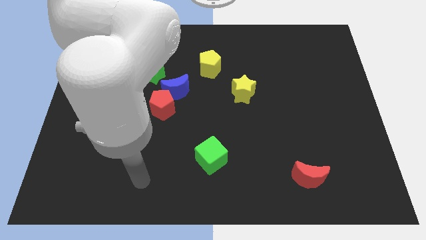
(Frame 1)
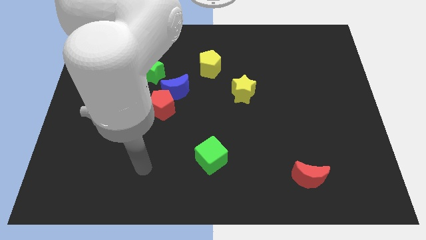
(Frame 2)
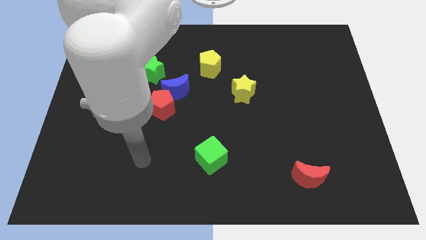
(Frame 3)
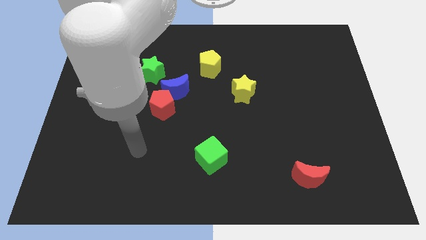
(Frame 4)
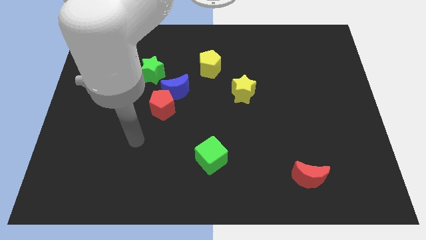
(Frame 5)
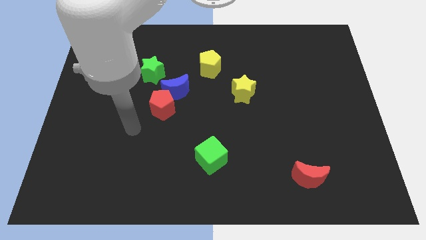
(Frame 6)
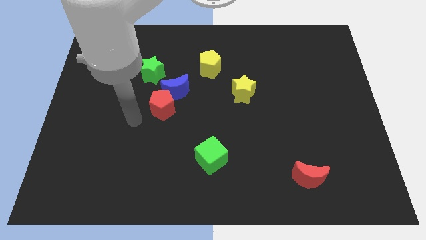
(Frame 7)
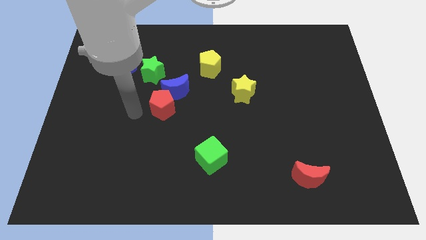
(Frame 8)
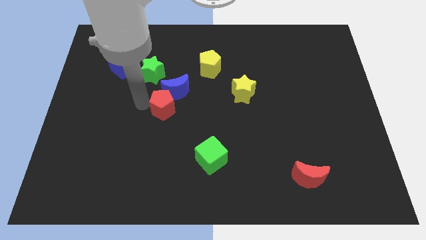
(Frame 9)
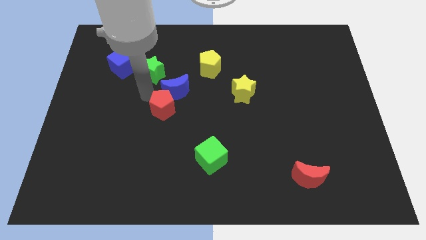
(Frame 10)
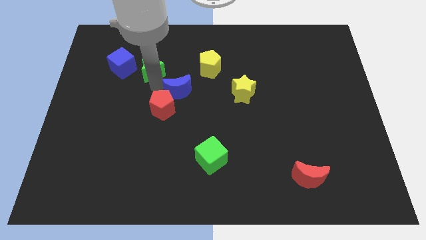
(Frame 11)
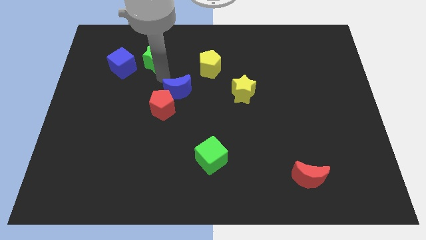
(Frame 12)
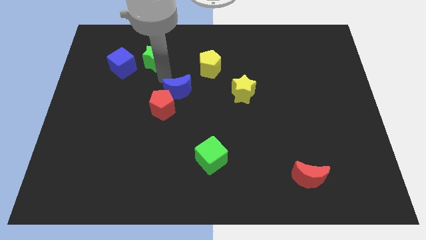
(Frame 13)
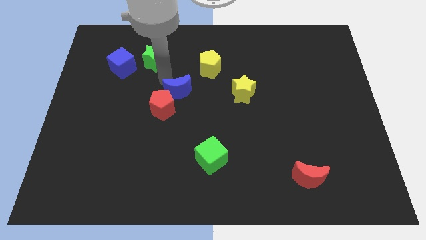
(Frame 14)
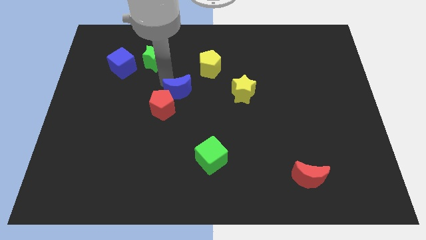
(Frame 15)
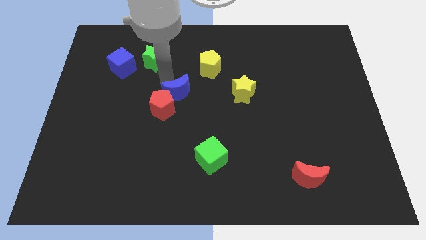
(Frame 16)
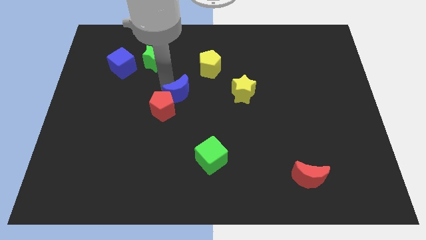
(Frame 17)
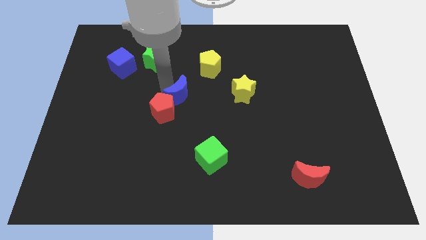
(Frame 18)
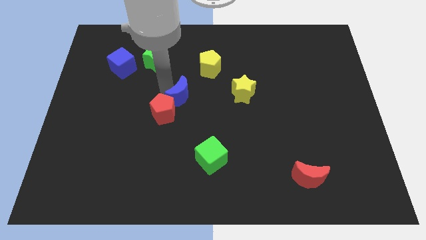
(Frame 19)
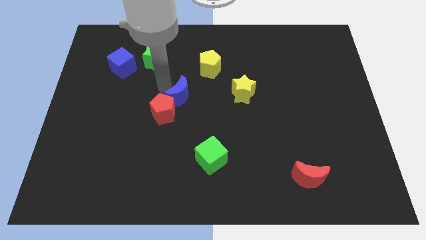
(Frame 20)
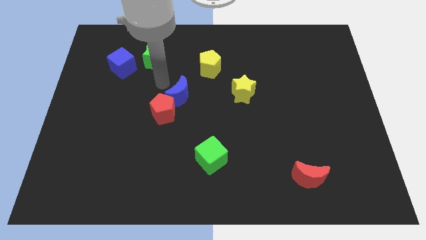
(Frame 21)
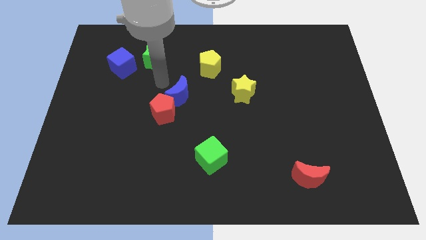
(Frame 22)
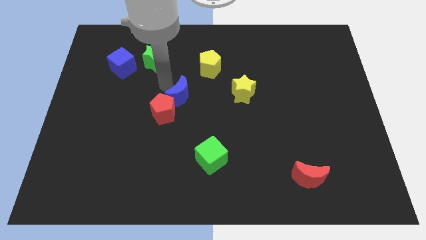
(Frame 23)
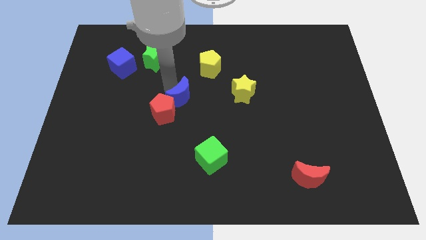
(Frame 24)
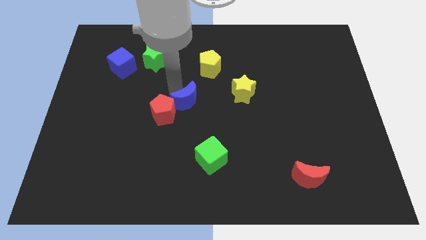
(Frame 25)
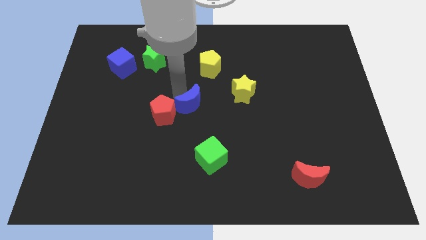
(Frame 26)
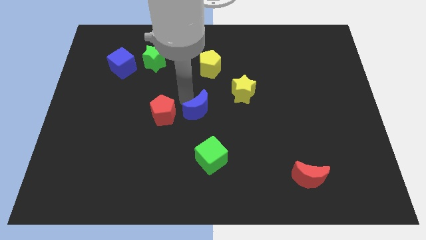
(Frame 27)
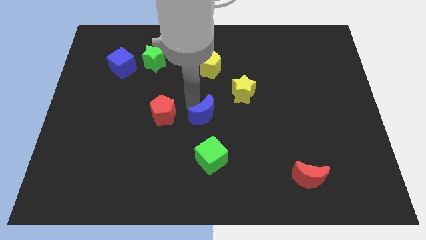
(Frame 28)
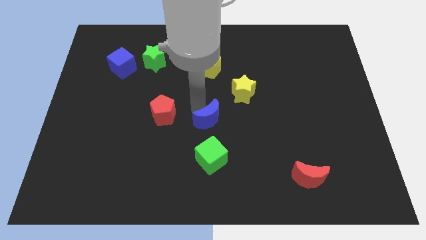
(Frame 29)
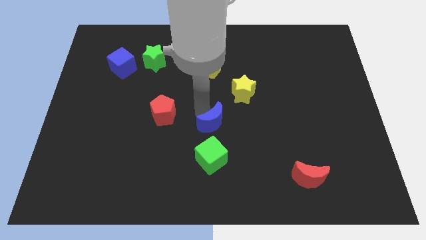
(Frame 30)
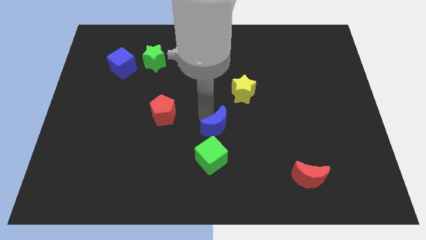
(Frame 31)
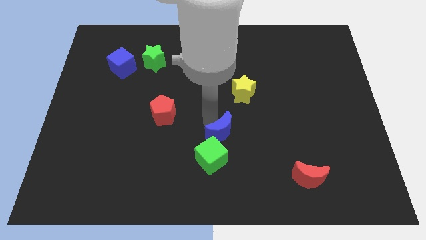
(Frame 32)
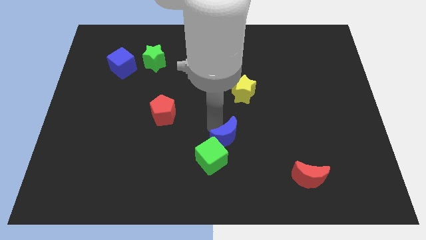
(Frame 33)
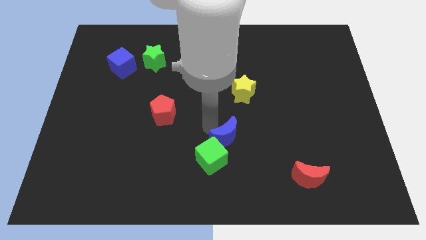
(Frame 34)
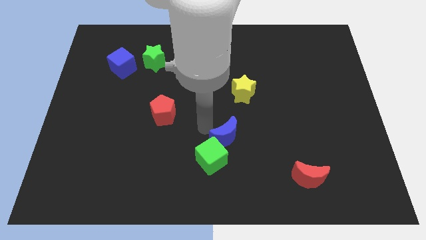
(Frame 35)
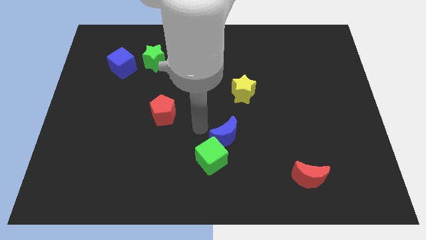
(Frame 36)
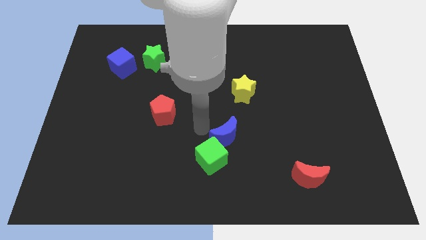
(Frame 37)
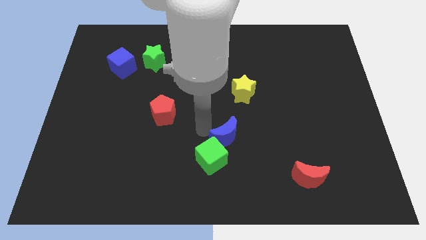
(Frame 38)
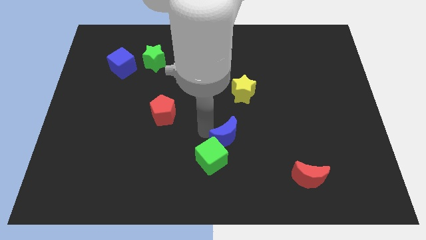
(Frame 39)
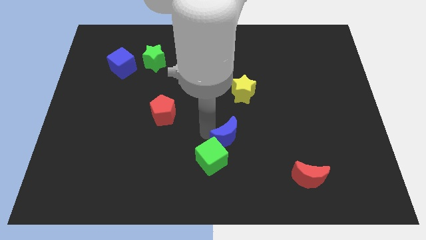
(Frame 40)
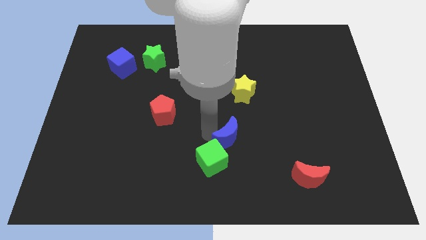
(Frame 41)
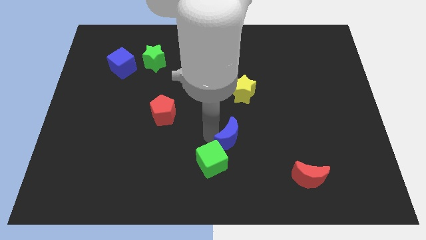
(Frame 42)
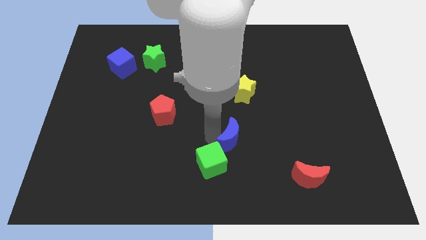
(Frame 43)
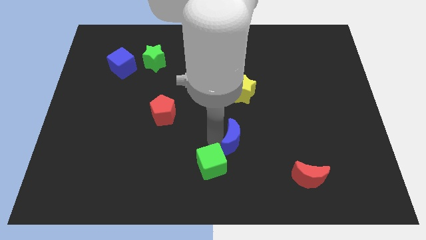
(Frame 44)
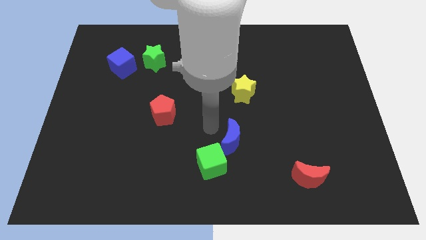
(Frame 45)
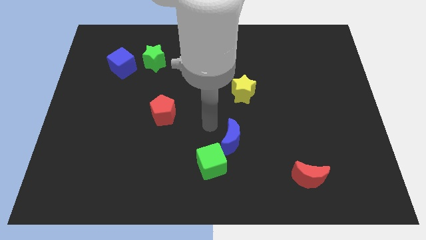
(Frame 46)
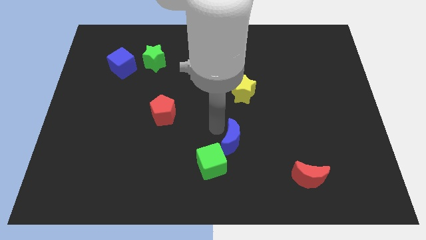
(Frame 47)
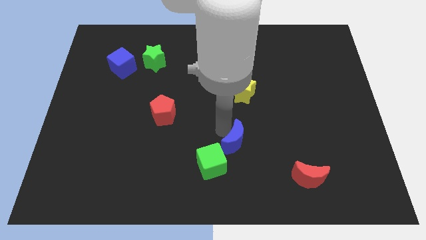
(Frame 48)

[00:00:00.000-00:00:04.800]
push the blue moon downwards and right

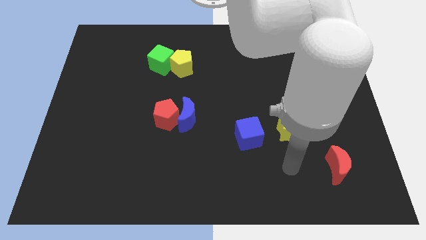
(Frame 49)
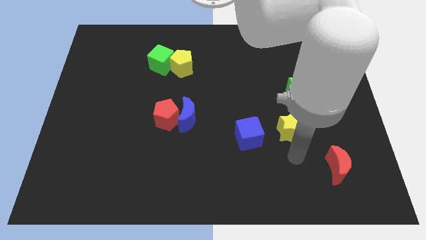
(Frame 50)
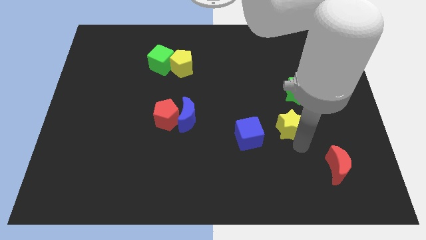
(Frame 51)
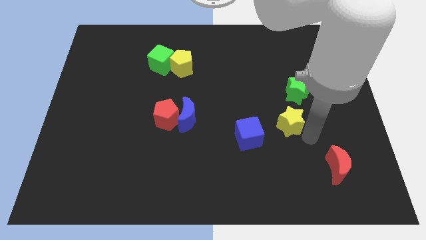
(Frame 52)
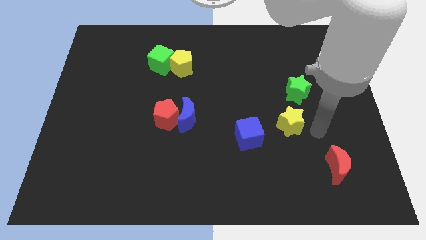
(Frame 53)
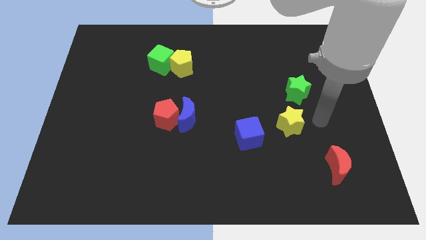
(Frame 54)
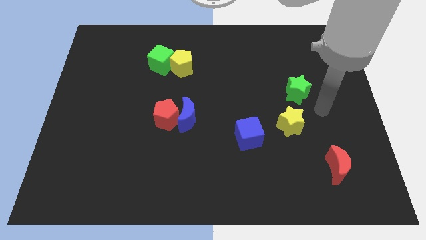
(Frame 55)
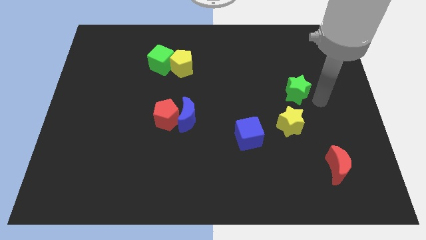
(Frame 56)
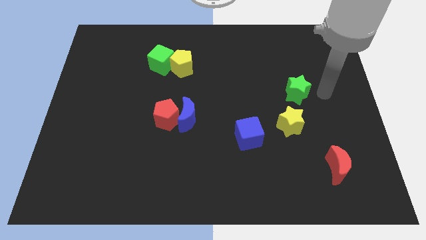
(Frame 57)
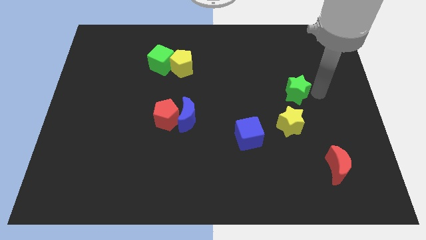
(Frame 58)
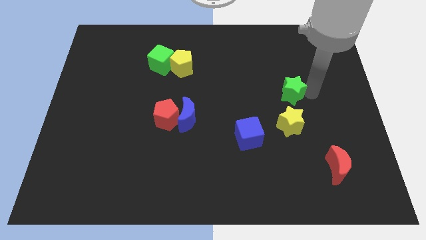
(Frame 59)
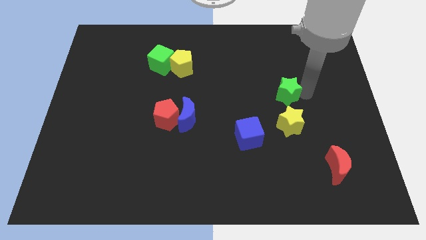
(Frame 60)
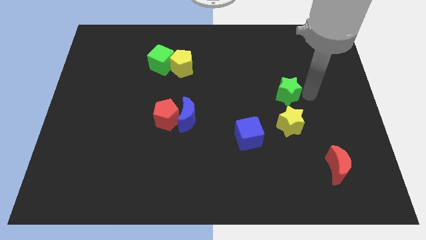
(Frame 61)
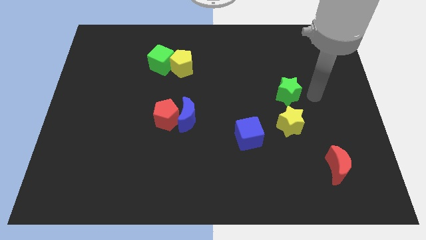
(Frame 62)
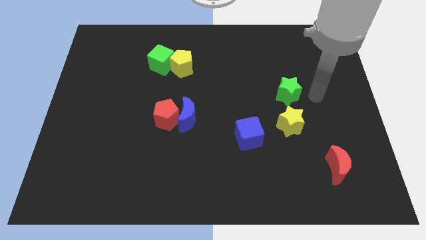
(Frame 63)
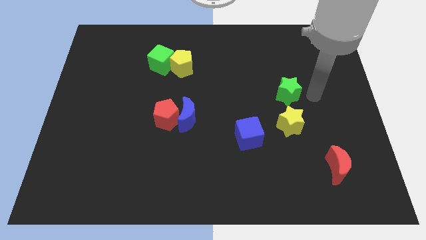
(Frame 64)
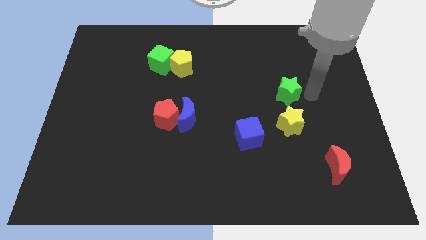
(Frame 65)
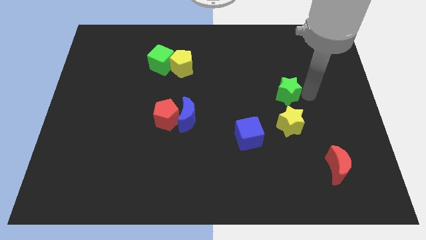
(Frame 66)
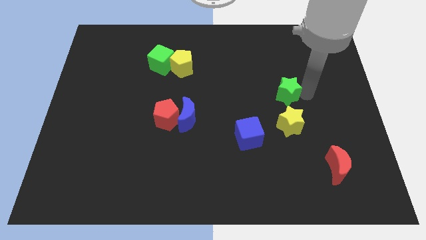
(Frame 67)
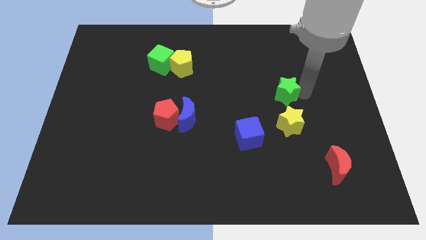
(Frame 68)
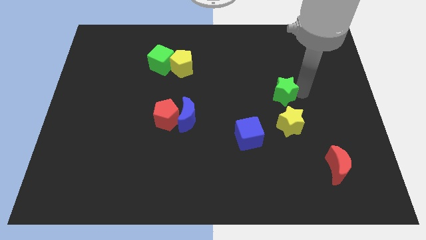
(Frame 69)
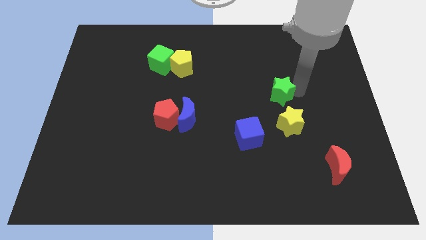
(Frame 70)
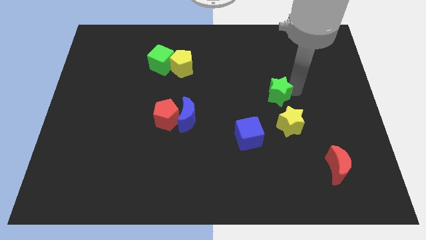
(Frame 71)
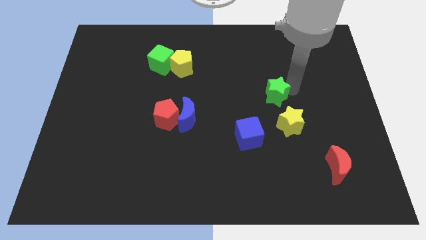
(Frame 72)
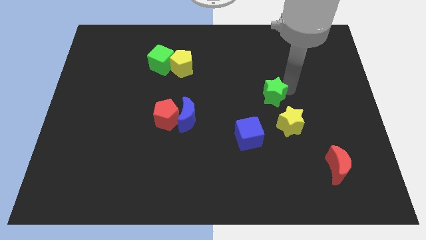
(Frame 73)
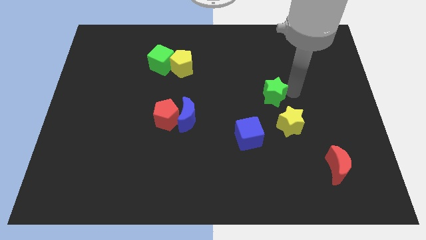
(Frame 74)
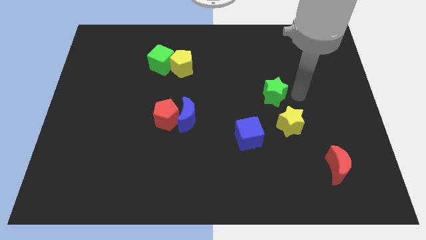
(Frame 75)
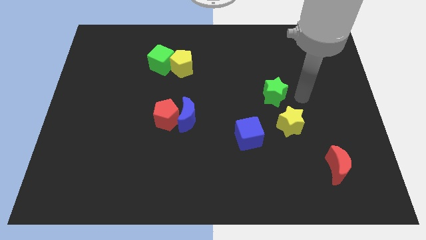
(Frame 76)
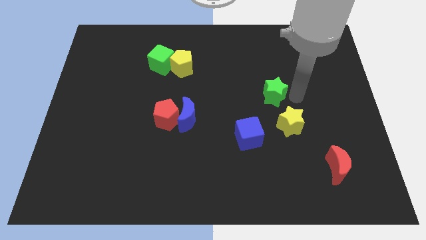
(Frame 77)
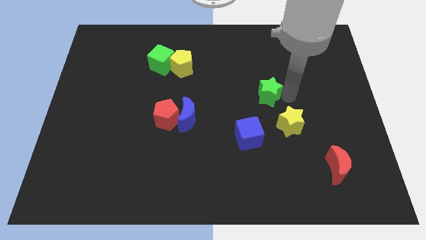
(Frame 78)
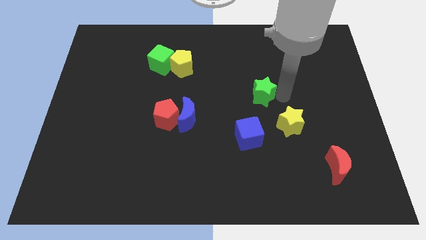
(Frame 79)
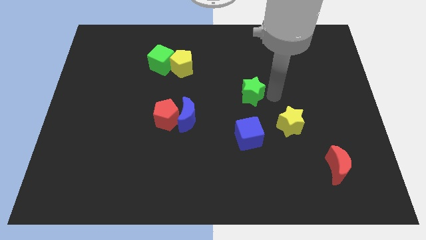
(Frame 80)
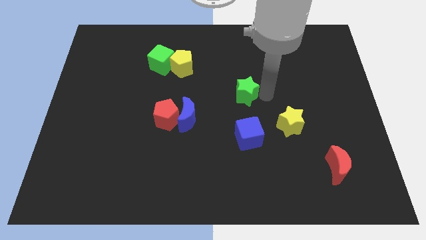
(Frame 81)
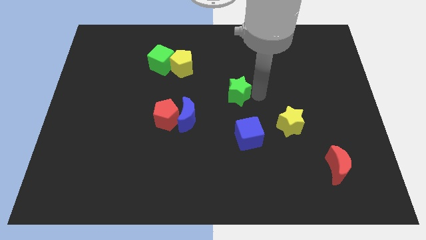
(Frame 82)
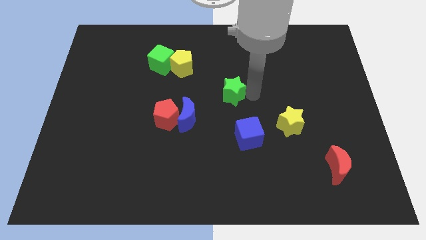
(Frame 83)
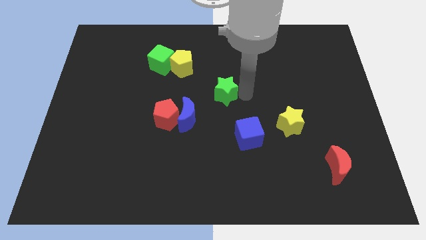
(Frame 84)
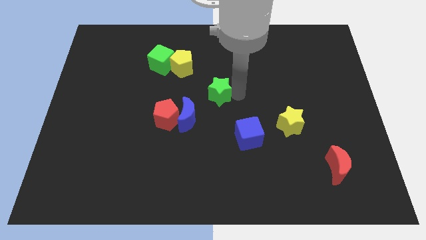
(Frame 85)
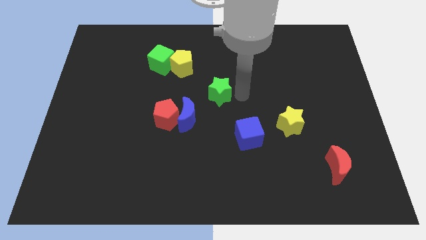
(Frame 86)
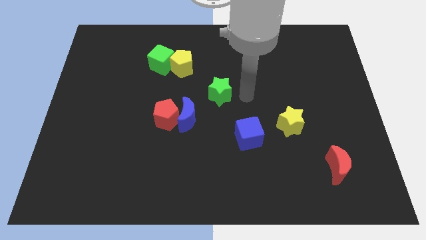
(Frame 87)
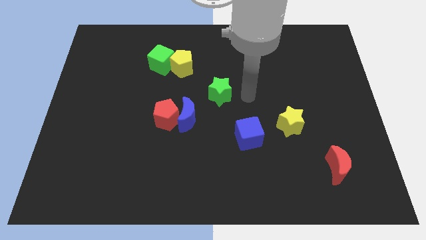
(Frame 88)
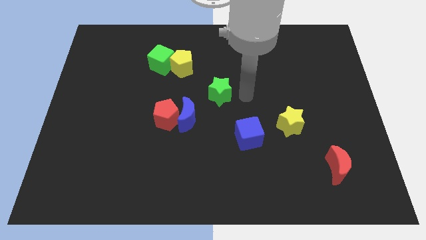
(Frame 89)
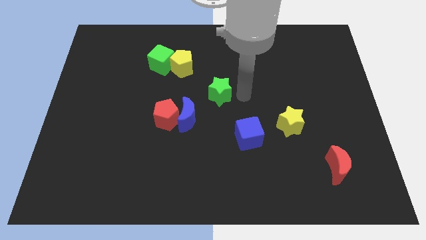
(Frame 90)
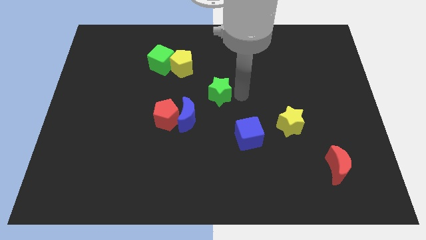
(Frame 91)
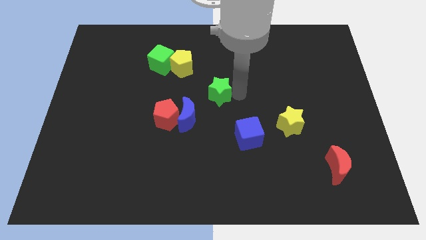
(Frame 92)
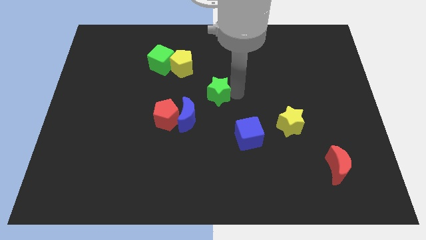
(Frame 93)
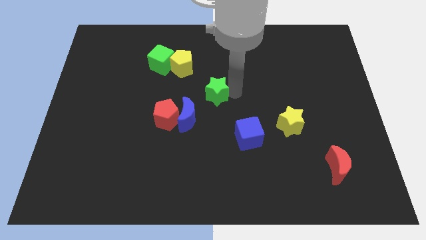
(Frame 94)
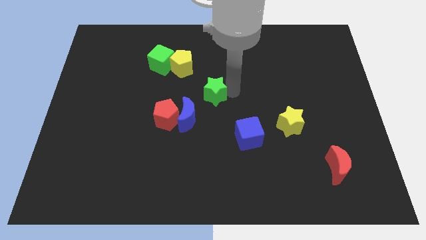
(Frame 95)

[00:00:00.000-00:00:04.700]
slide the green star to the left
